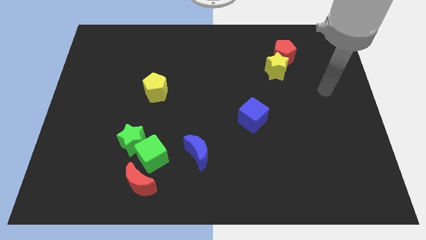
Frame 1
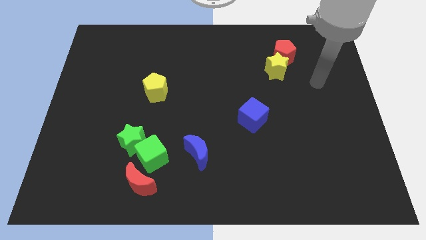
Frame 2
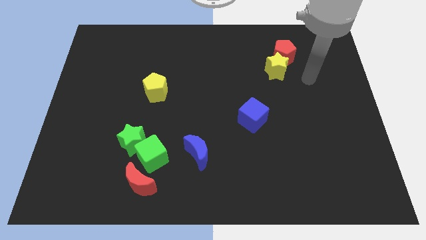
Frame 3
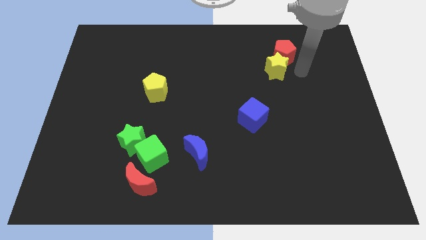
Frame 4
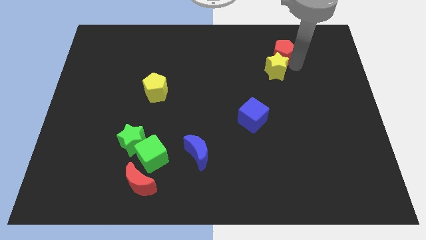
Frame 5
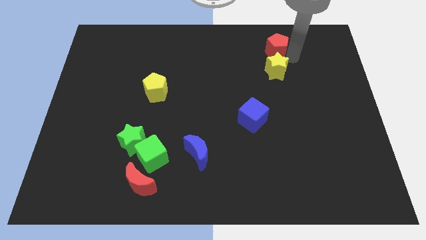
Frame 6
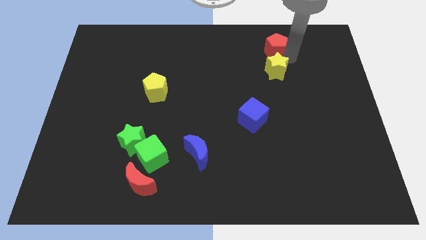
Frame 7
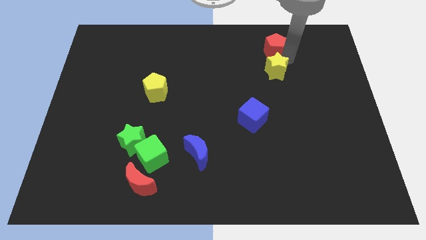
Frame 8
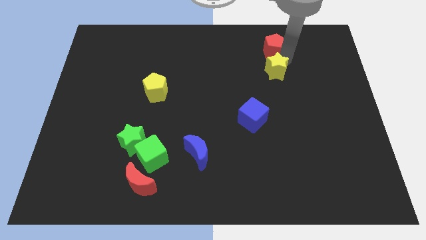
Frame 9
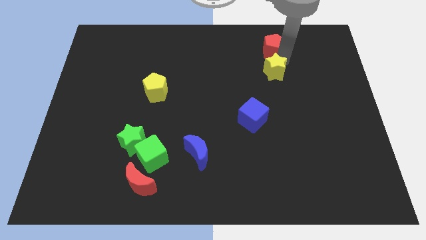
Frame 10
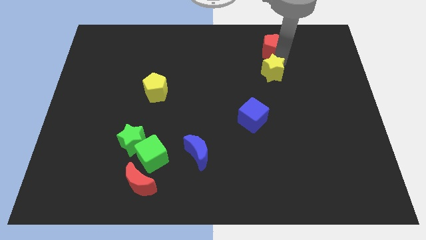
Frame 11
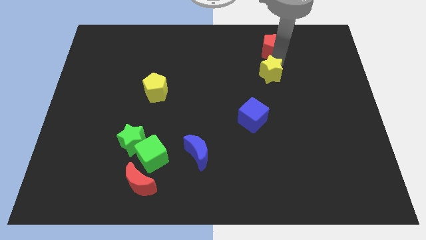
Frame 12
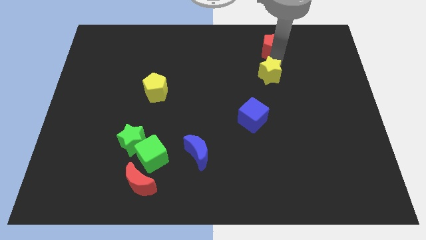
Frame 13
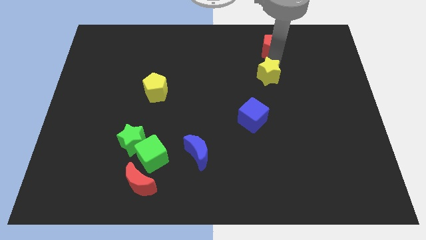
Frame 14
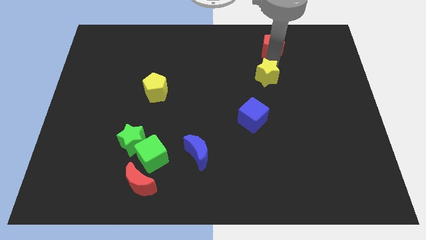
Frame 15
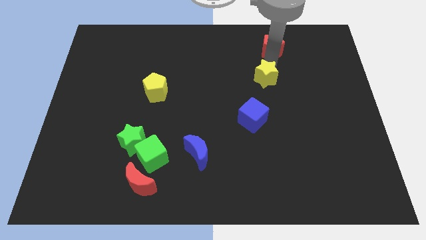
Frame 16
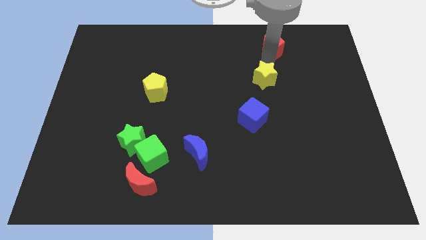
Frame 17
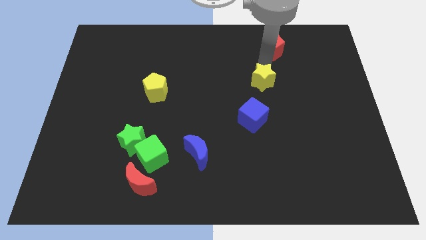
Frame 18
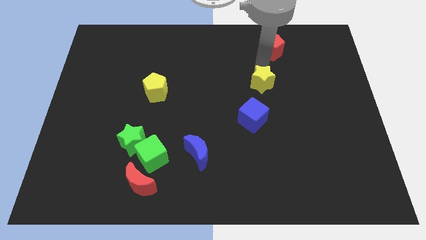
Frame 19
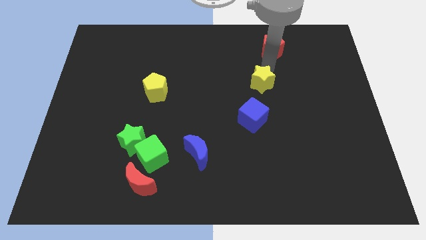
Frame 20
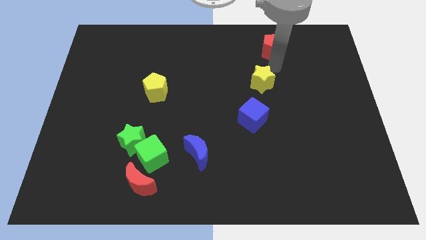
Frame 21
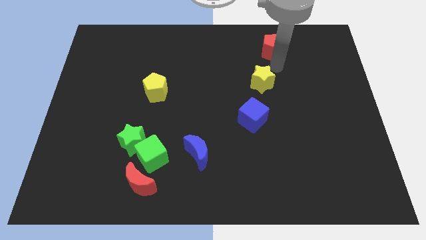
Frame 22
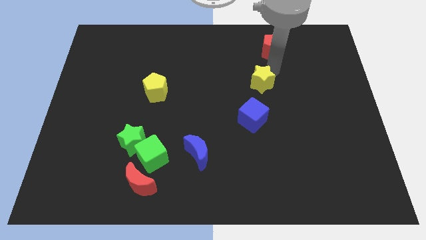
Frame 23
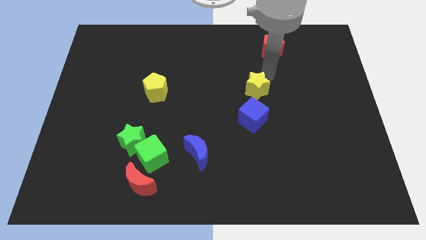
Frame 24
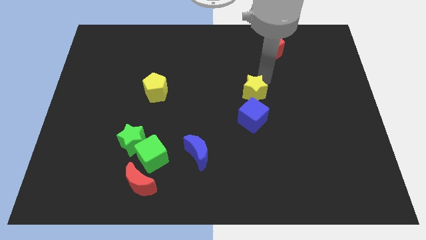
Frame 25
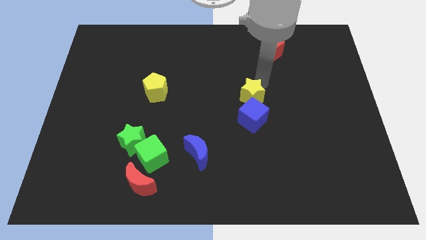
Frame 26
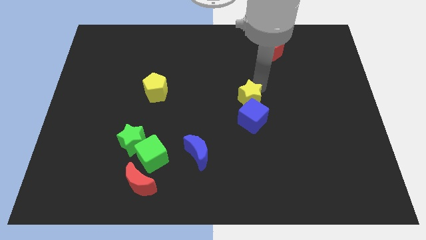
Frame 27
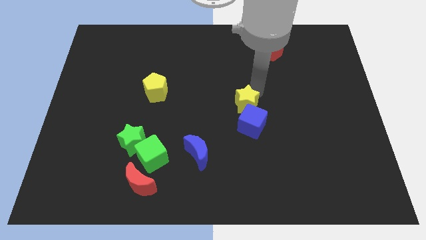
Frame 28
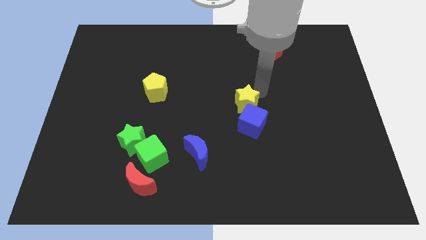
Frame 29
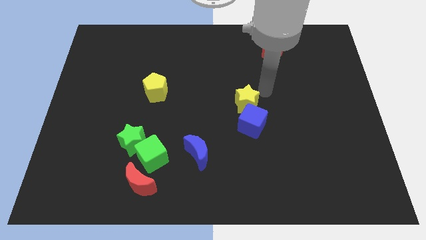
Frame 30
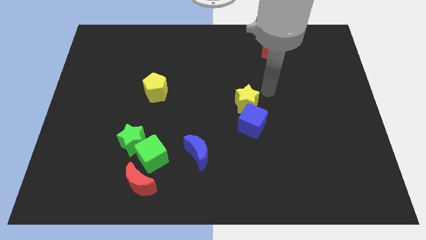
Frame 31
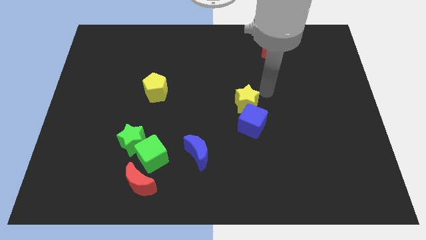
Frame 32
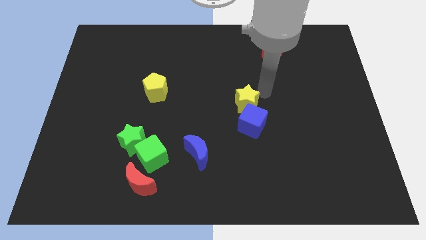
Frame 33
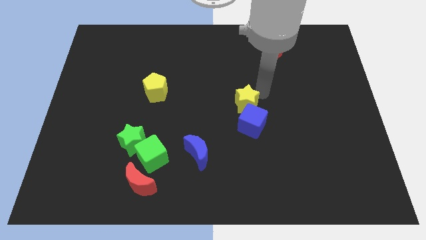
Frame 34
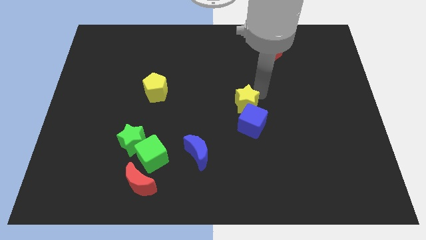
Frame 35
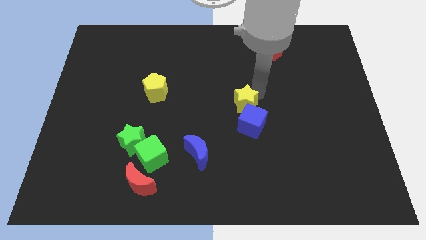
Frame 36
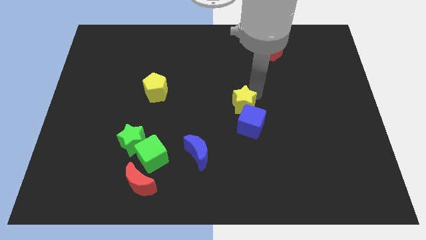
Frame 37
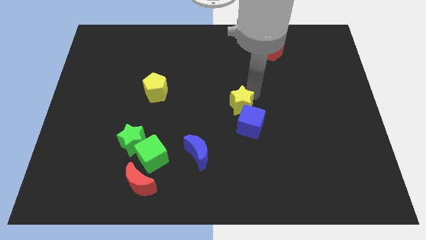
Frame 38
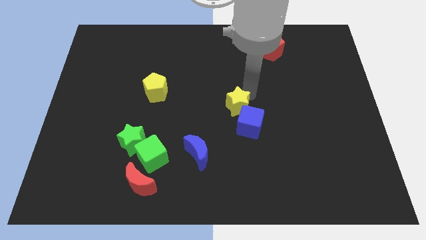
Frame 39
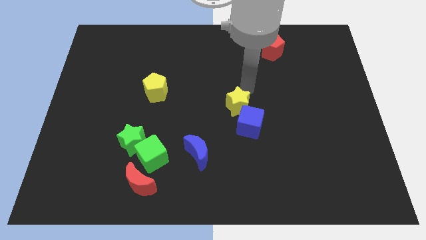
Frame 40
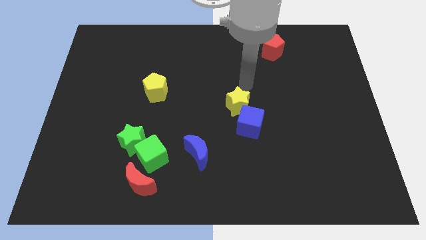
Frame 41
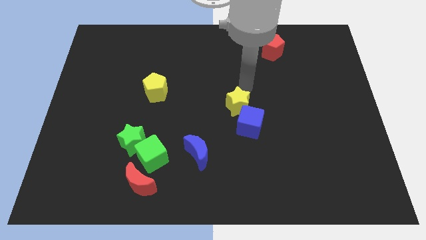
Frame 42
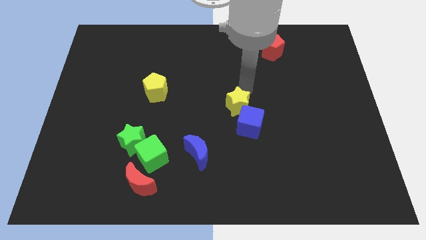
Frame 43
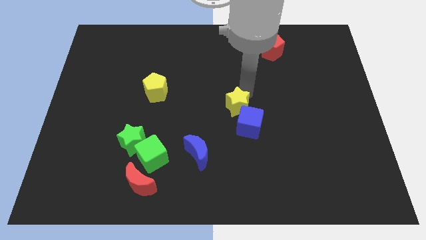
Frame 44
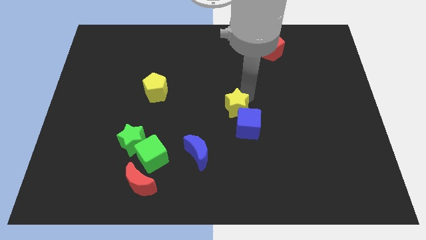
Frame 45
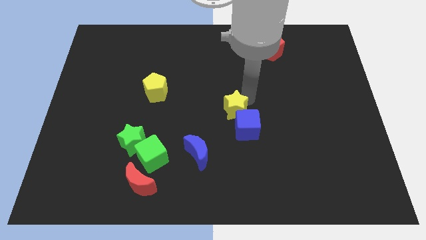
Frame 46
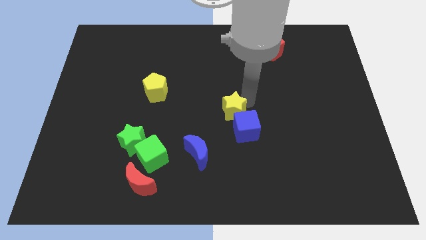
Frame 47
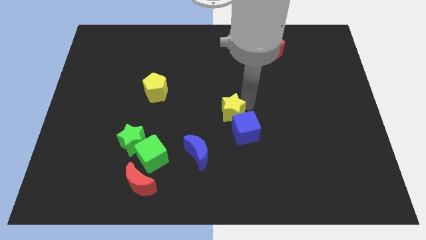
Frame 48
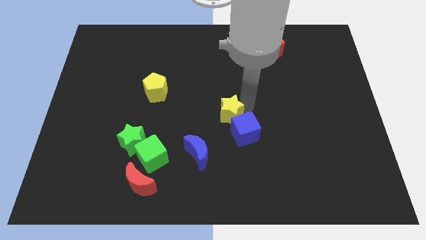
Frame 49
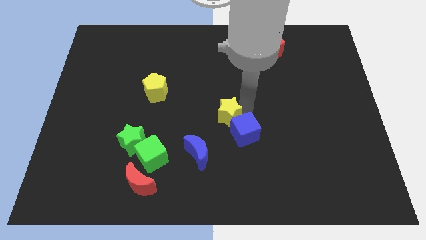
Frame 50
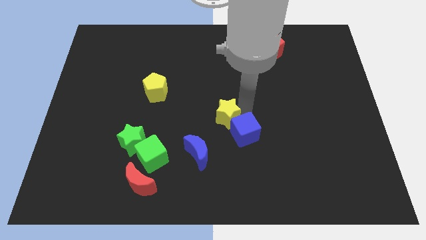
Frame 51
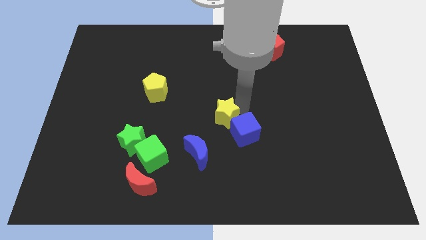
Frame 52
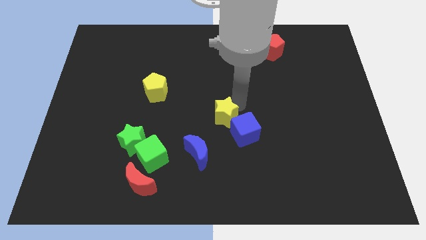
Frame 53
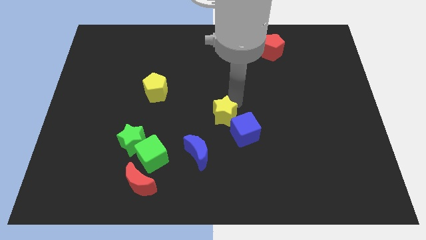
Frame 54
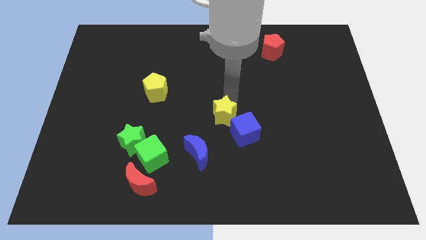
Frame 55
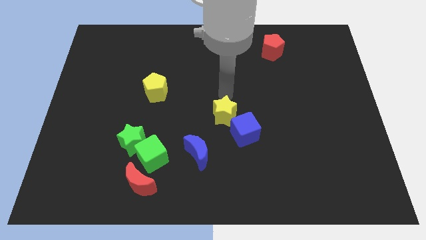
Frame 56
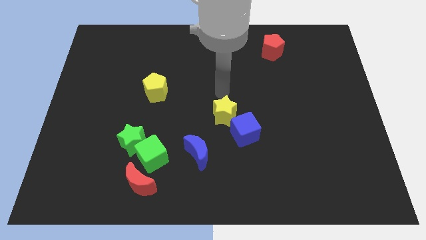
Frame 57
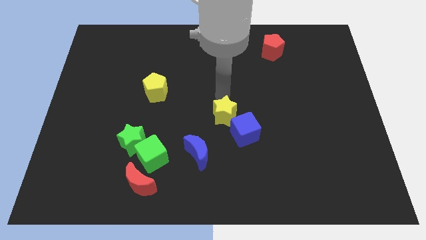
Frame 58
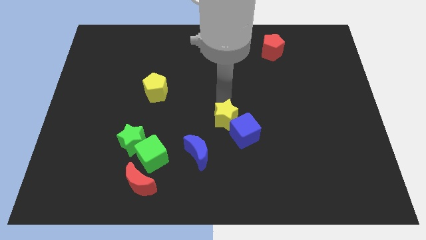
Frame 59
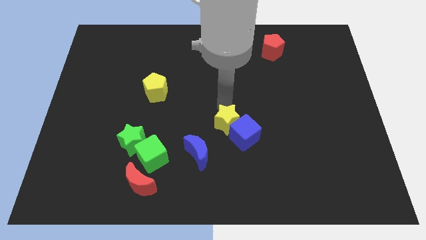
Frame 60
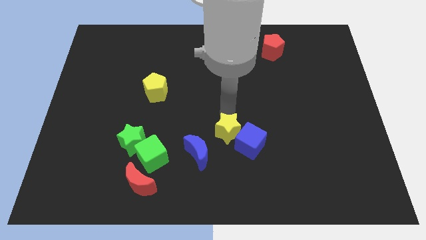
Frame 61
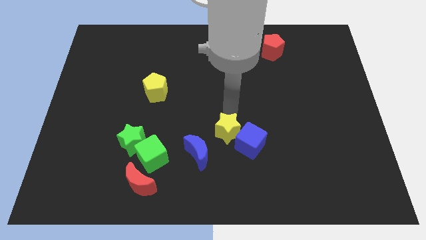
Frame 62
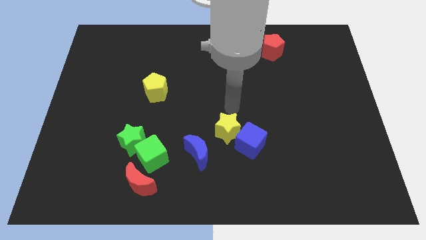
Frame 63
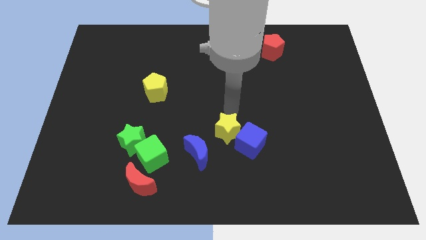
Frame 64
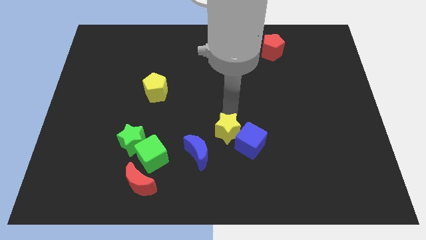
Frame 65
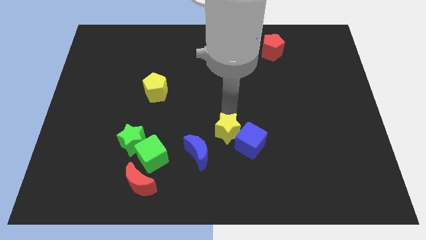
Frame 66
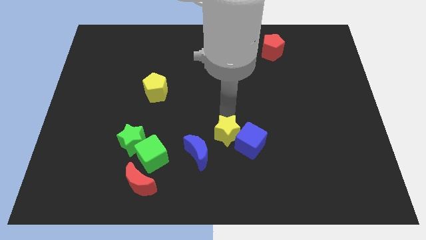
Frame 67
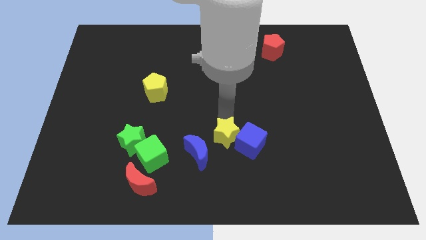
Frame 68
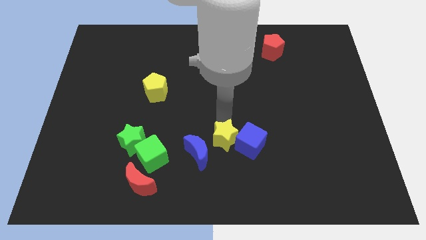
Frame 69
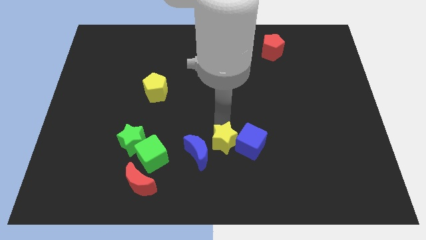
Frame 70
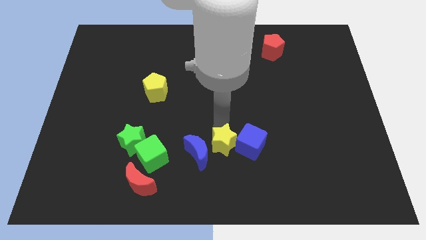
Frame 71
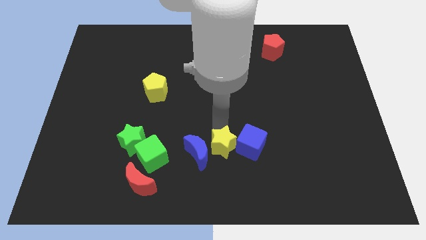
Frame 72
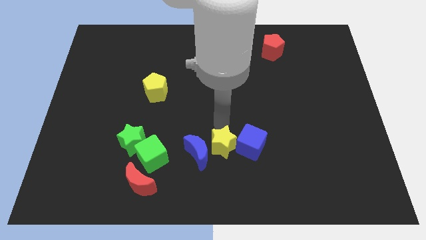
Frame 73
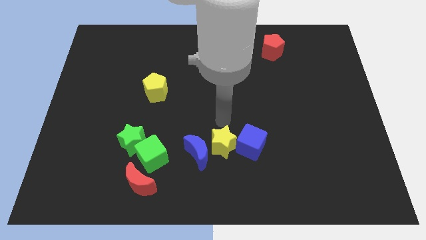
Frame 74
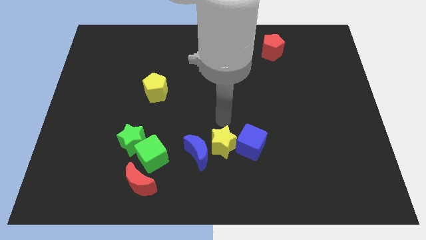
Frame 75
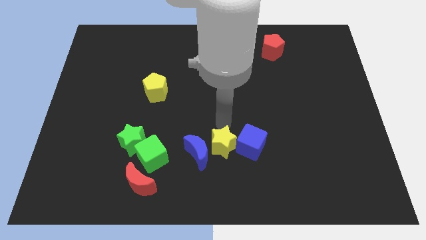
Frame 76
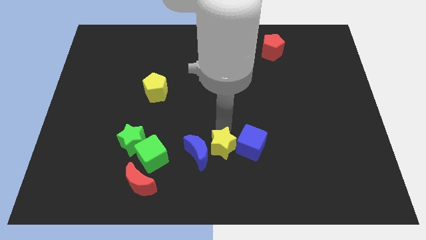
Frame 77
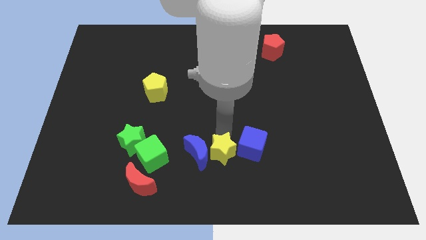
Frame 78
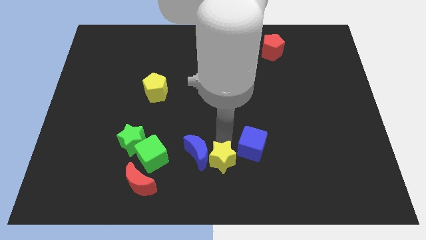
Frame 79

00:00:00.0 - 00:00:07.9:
slide the yellow star to the bottom side
